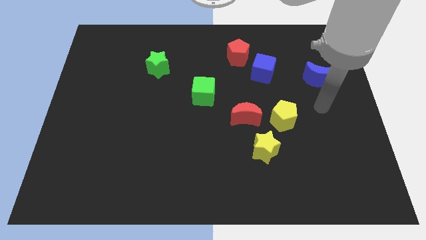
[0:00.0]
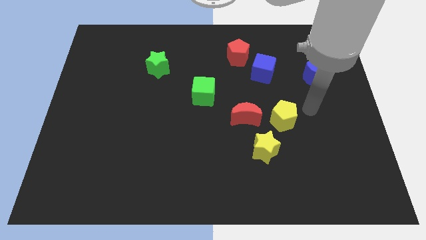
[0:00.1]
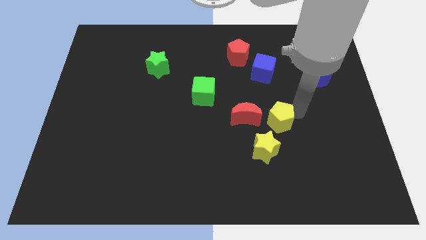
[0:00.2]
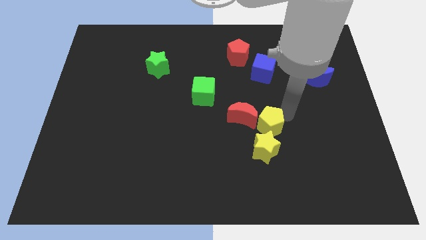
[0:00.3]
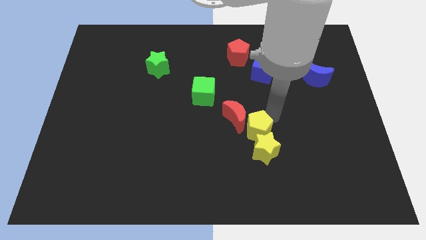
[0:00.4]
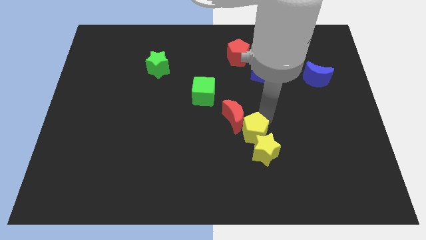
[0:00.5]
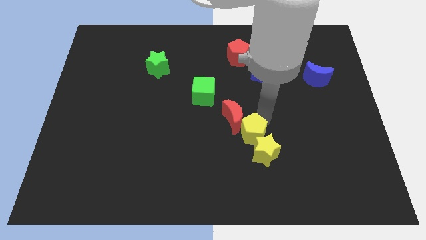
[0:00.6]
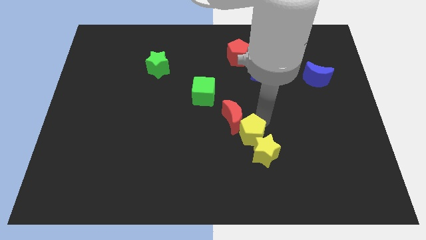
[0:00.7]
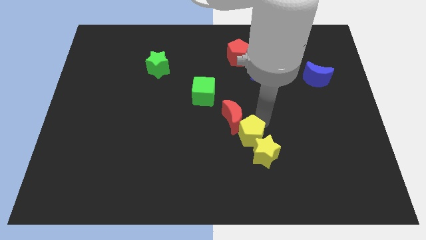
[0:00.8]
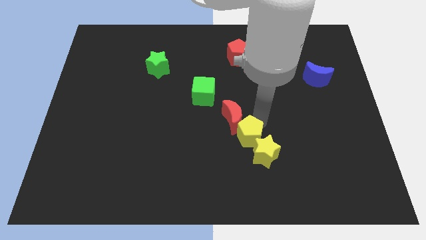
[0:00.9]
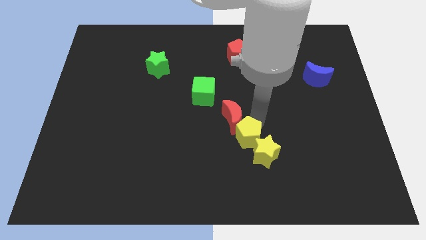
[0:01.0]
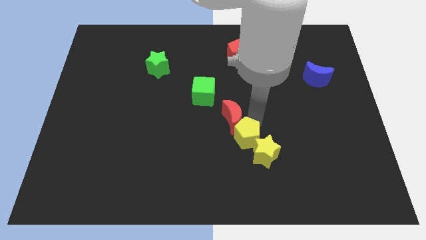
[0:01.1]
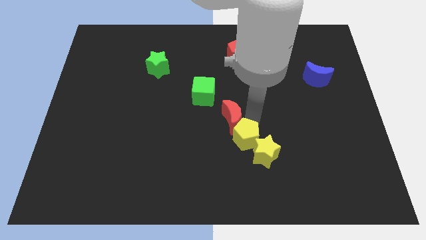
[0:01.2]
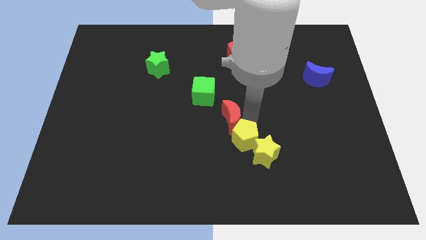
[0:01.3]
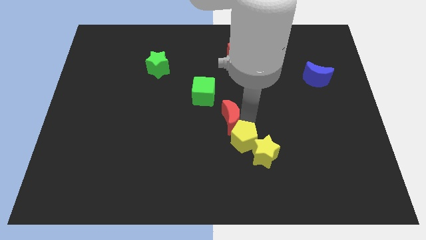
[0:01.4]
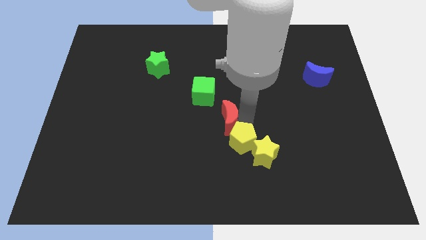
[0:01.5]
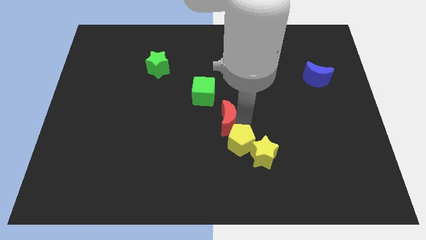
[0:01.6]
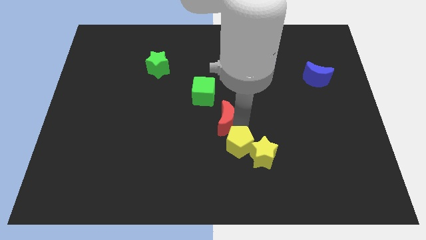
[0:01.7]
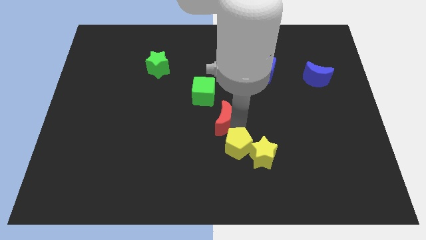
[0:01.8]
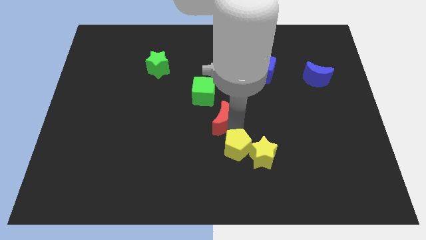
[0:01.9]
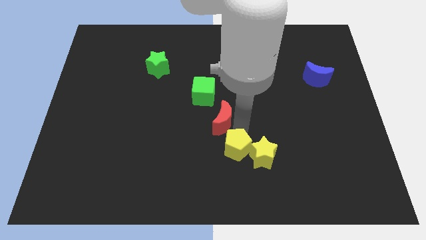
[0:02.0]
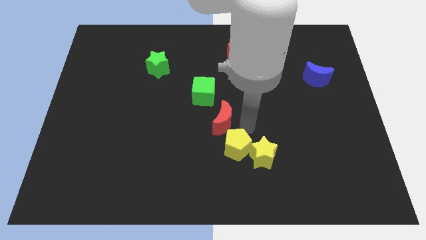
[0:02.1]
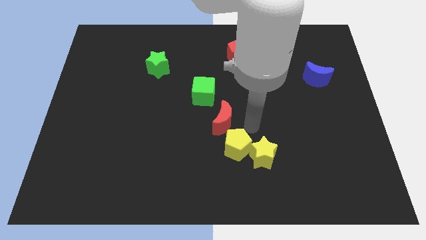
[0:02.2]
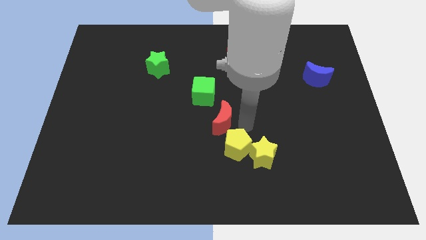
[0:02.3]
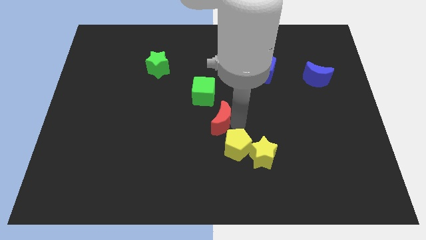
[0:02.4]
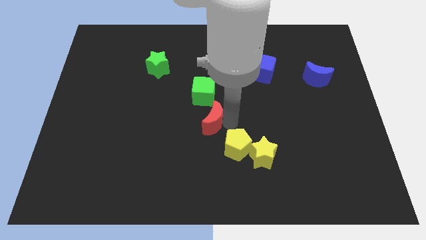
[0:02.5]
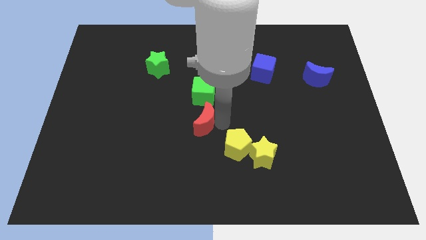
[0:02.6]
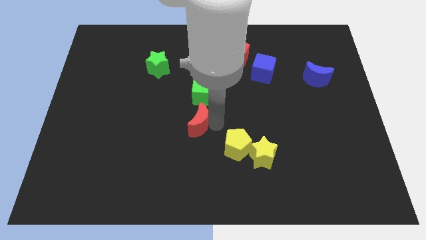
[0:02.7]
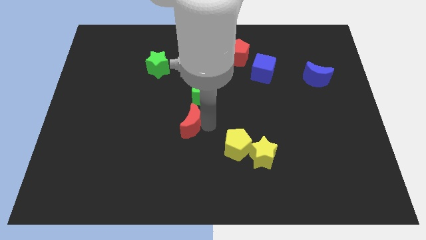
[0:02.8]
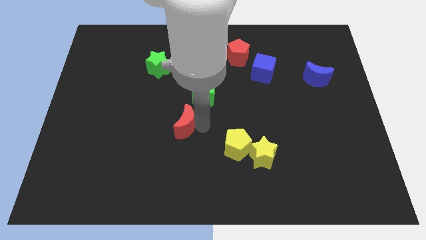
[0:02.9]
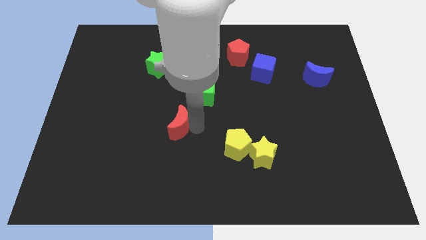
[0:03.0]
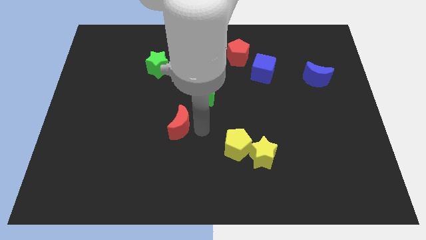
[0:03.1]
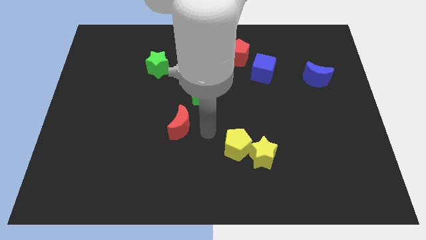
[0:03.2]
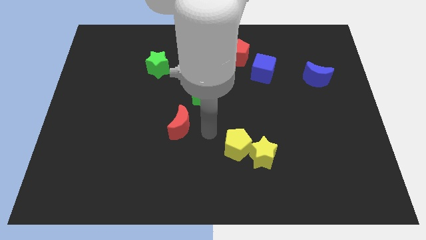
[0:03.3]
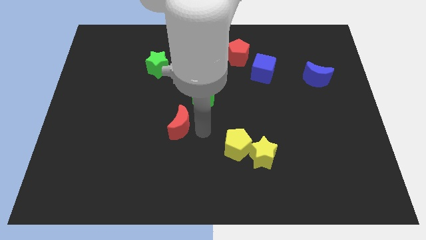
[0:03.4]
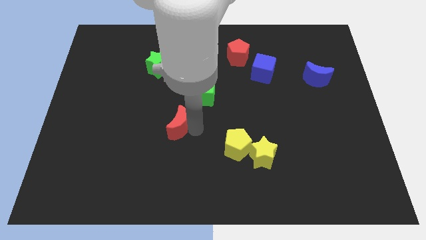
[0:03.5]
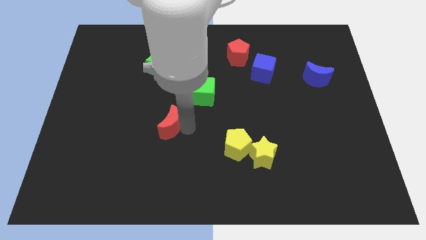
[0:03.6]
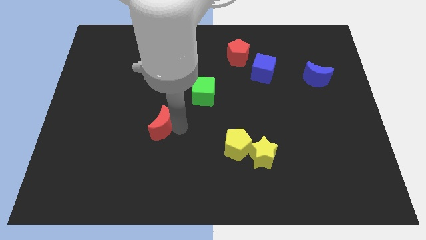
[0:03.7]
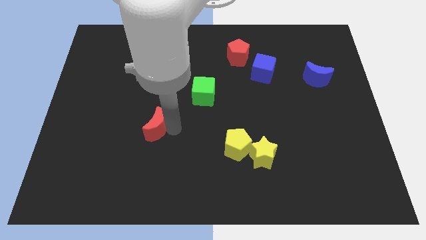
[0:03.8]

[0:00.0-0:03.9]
move the red moon left

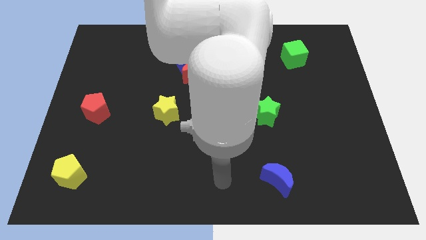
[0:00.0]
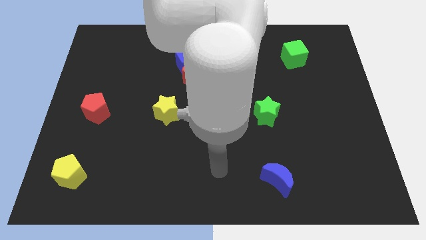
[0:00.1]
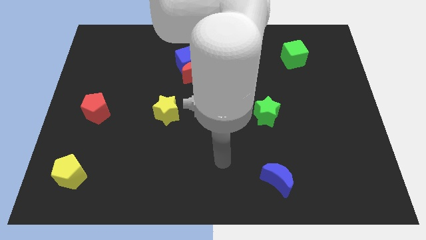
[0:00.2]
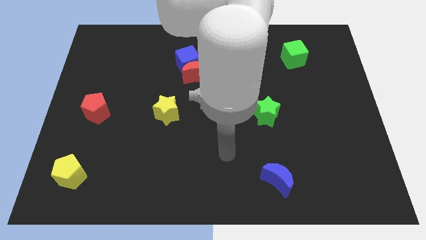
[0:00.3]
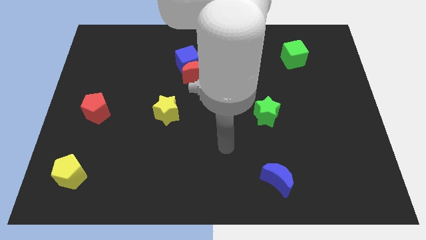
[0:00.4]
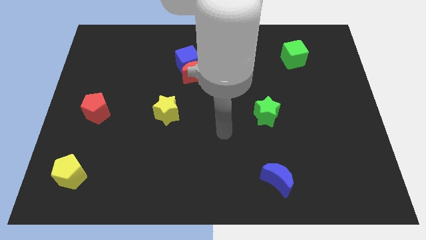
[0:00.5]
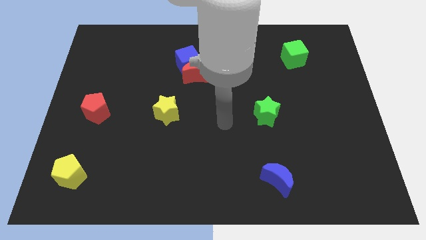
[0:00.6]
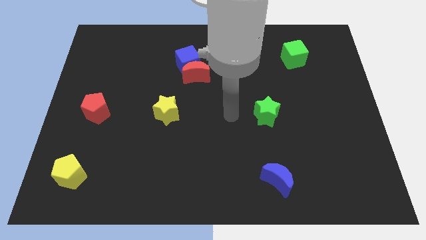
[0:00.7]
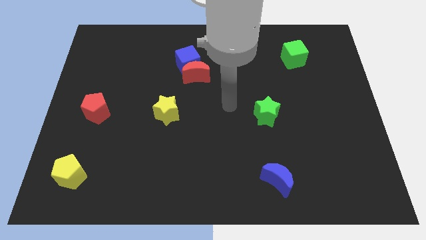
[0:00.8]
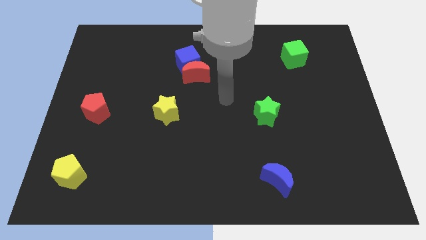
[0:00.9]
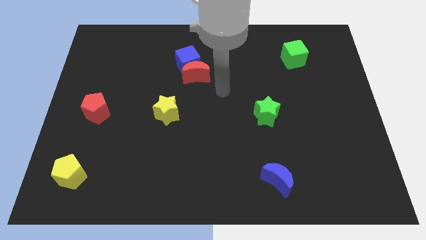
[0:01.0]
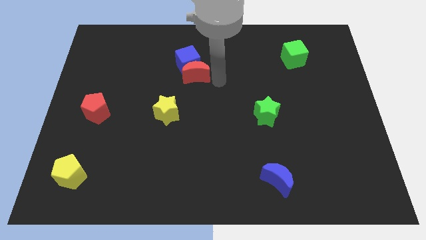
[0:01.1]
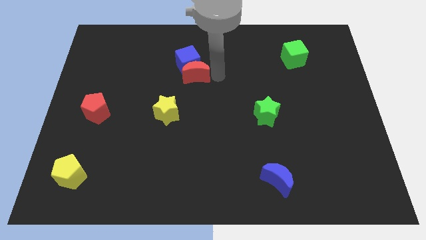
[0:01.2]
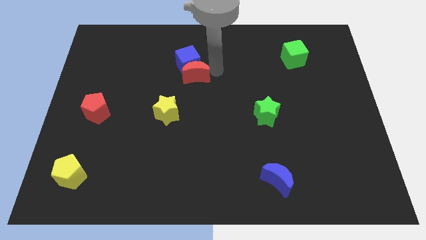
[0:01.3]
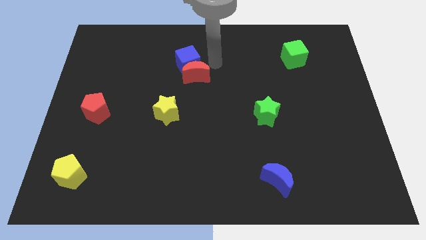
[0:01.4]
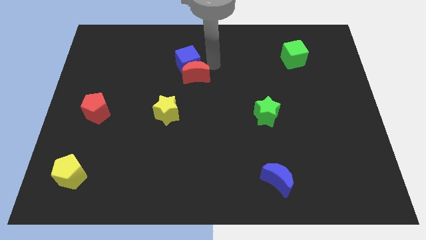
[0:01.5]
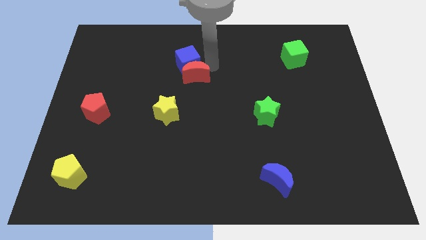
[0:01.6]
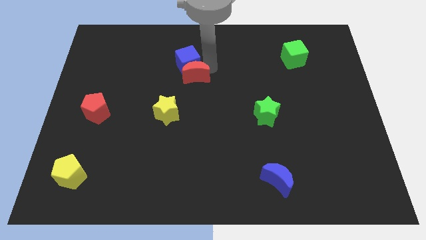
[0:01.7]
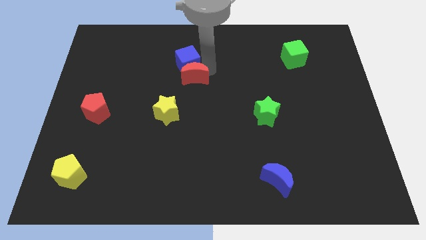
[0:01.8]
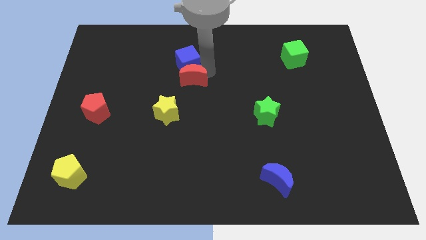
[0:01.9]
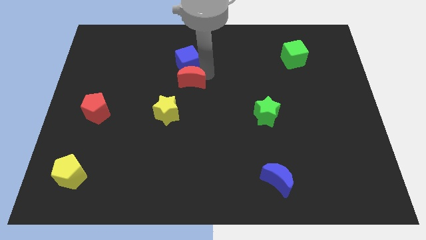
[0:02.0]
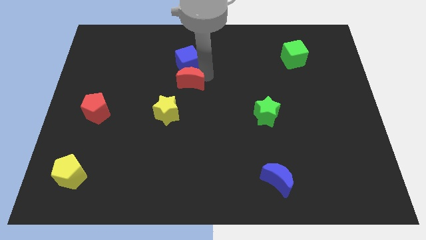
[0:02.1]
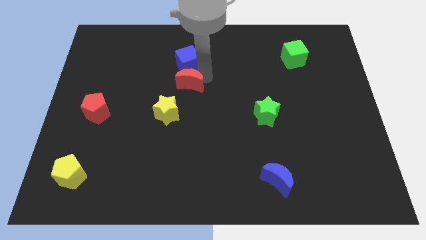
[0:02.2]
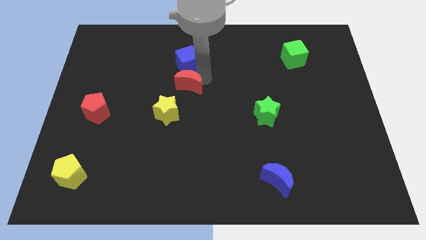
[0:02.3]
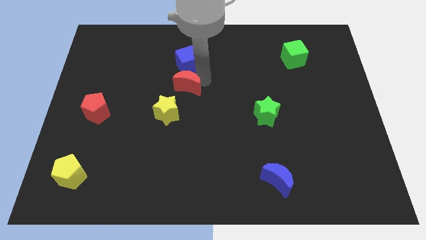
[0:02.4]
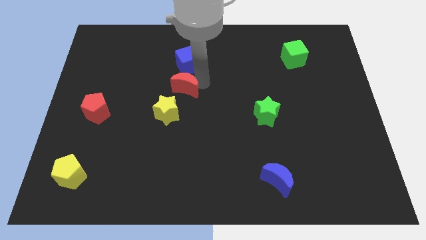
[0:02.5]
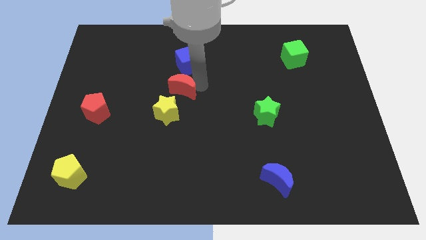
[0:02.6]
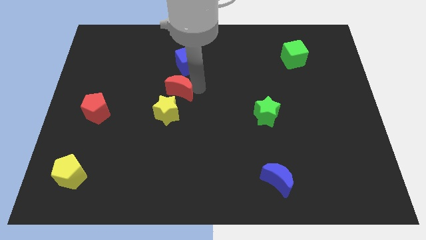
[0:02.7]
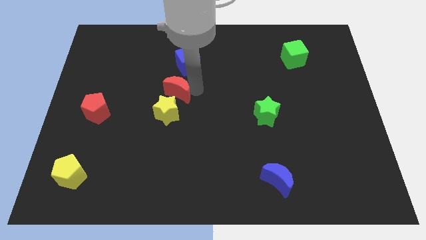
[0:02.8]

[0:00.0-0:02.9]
slightly push the red moon down and to the left

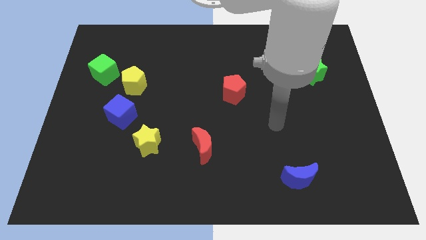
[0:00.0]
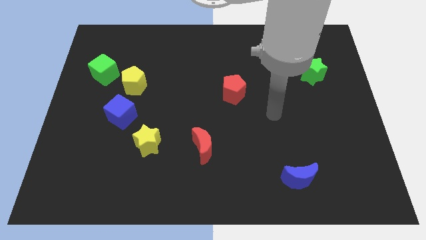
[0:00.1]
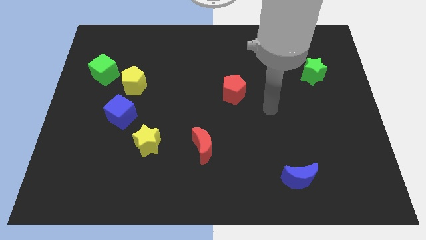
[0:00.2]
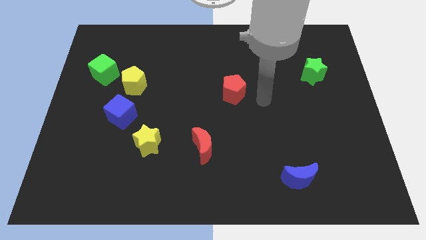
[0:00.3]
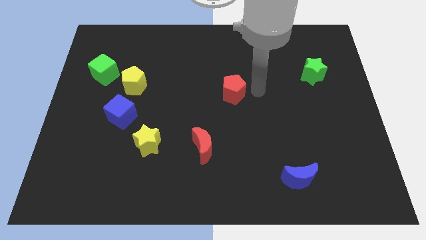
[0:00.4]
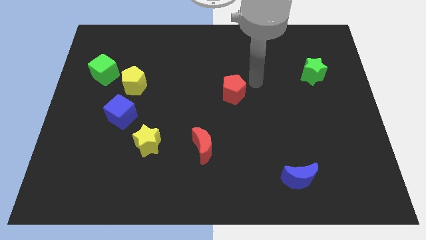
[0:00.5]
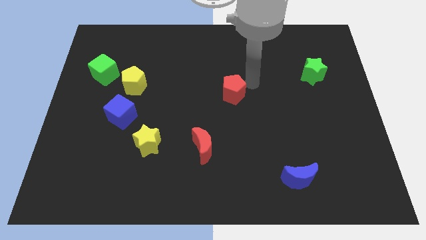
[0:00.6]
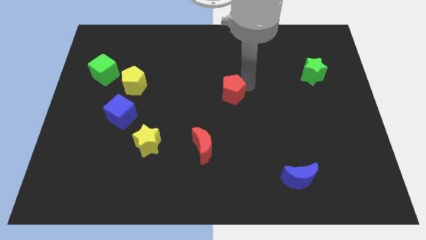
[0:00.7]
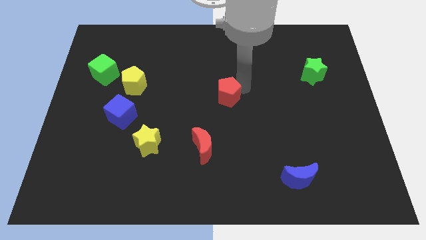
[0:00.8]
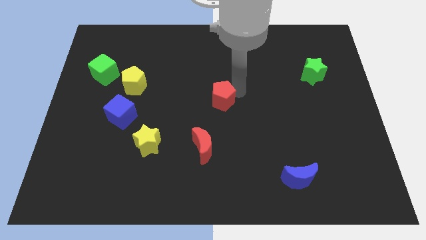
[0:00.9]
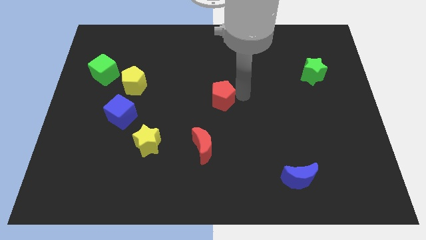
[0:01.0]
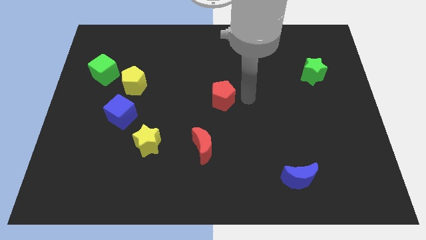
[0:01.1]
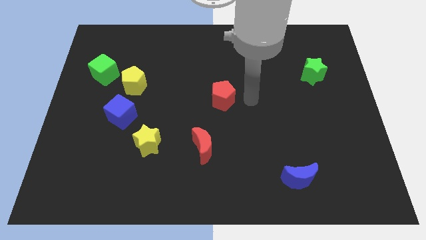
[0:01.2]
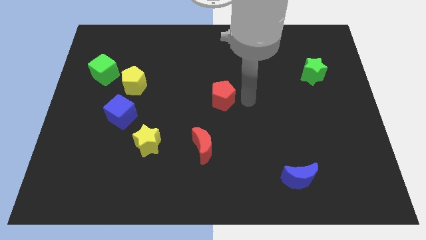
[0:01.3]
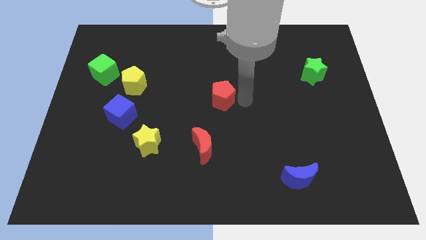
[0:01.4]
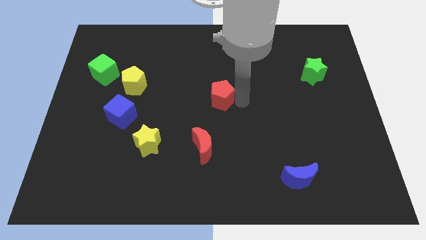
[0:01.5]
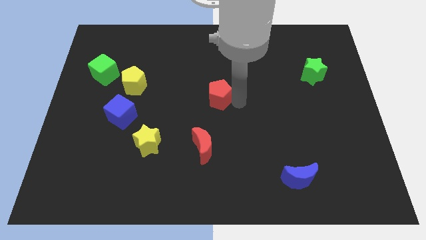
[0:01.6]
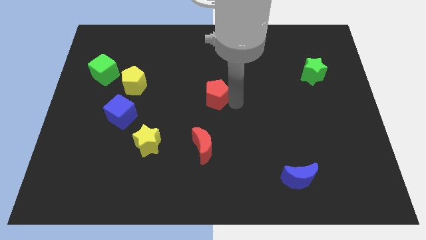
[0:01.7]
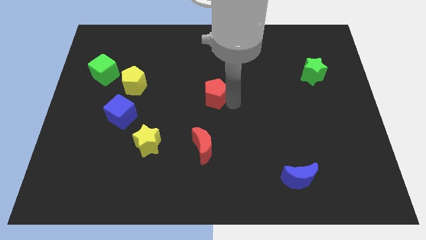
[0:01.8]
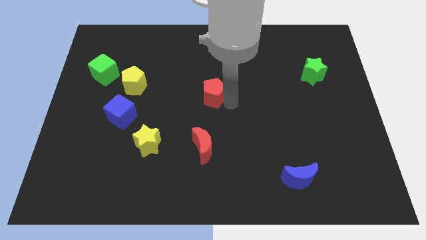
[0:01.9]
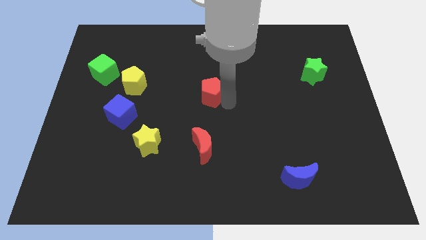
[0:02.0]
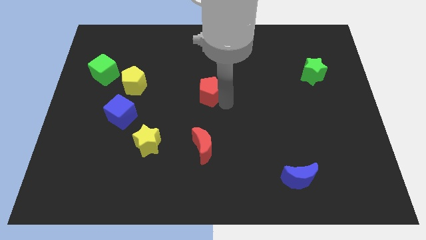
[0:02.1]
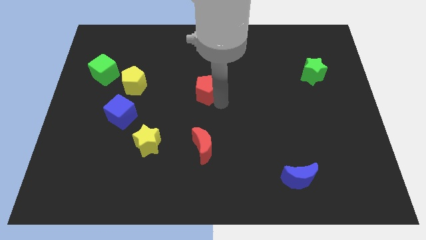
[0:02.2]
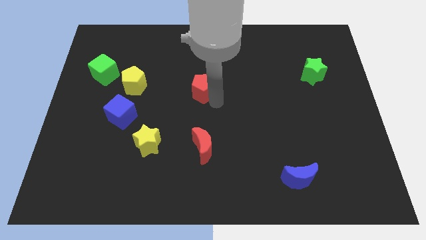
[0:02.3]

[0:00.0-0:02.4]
push the red pentagon to the left a little
